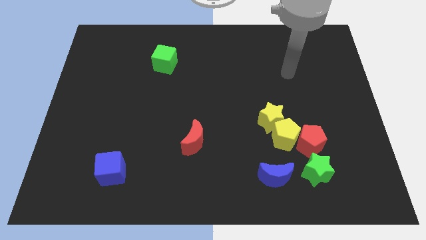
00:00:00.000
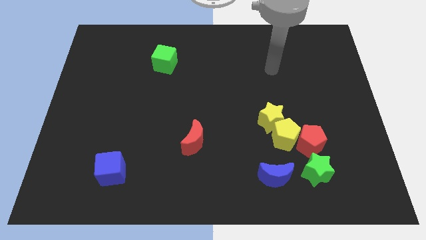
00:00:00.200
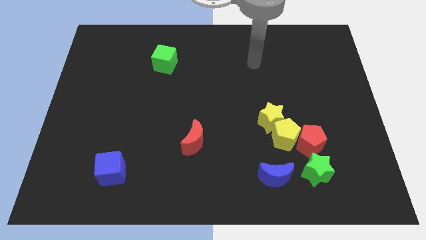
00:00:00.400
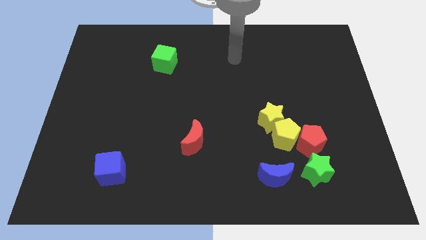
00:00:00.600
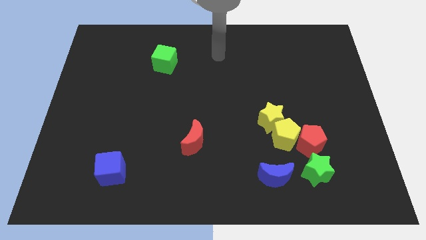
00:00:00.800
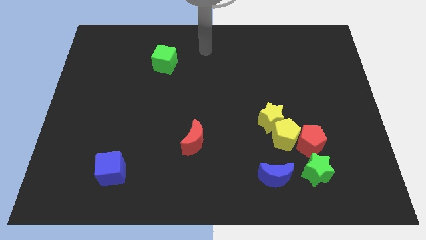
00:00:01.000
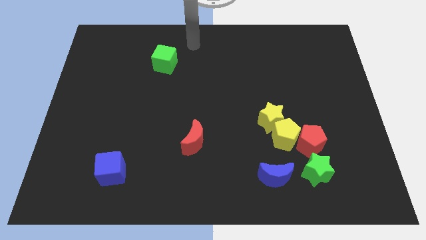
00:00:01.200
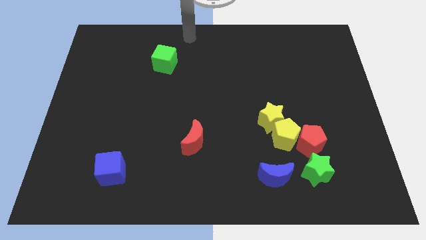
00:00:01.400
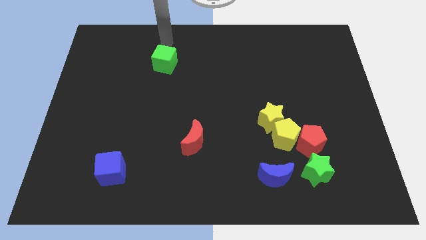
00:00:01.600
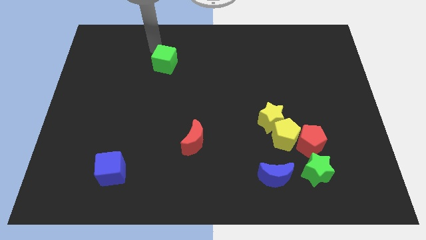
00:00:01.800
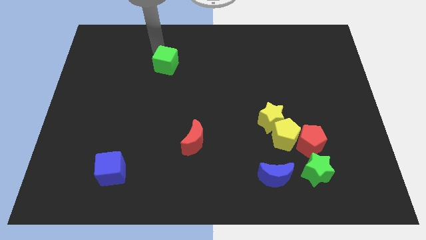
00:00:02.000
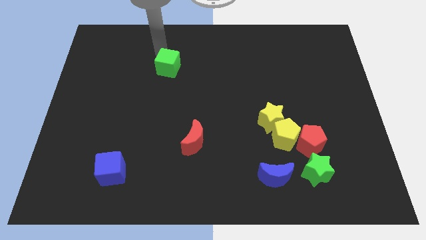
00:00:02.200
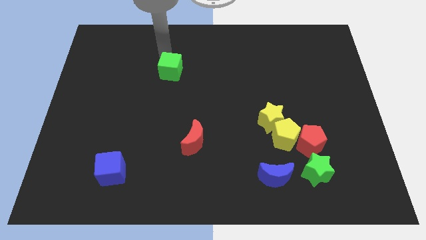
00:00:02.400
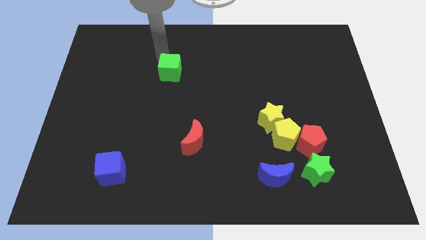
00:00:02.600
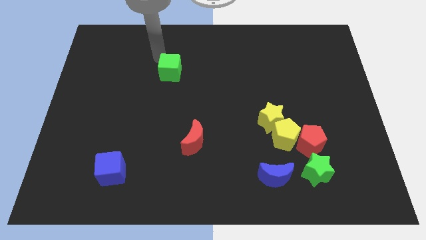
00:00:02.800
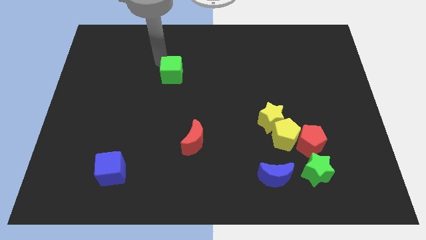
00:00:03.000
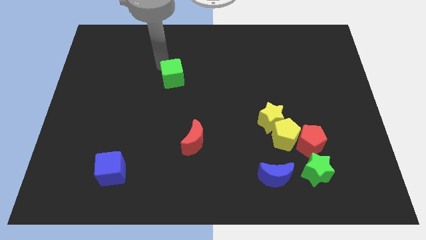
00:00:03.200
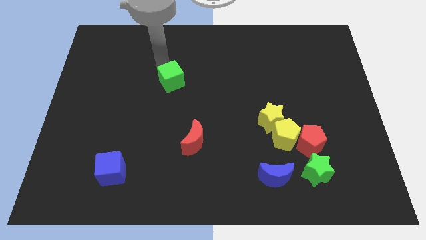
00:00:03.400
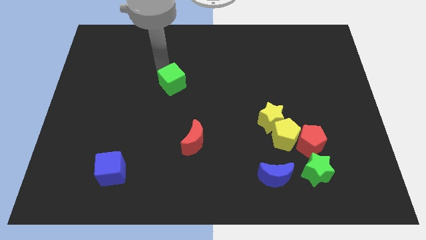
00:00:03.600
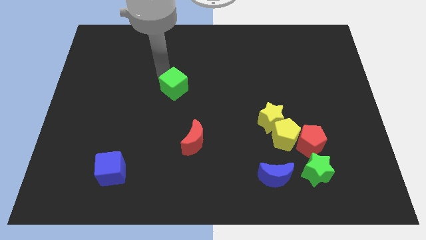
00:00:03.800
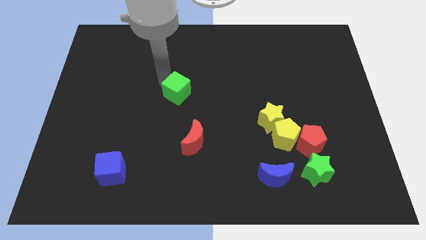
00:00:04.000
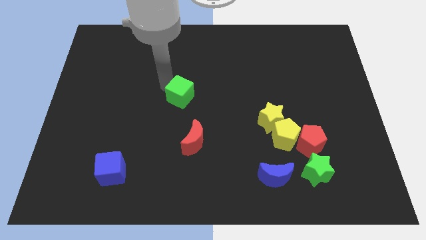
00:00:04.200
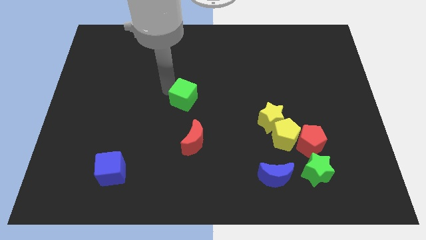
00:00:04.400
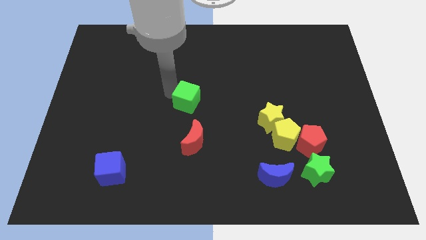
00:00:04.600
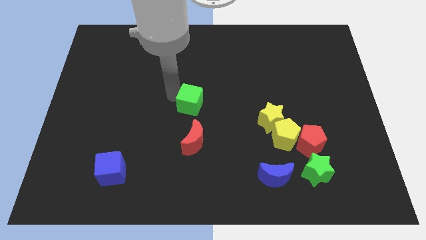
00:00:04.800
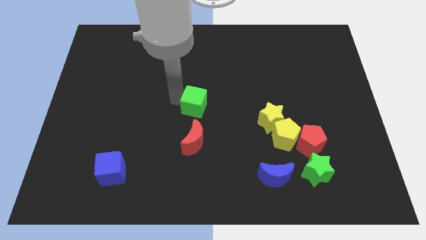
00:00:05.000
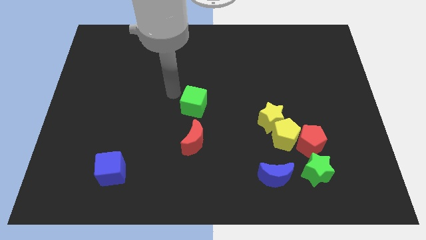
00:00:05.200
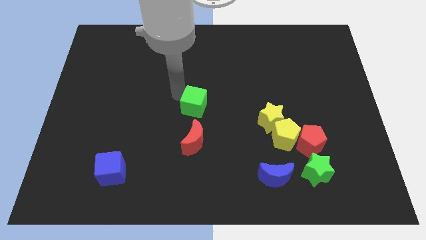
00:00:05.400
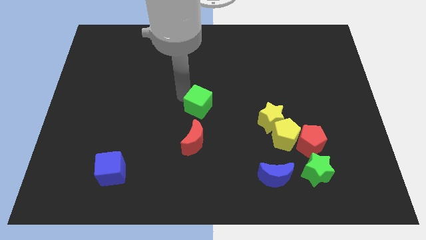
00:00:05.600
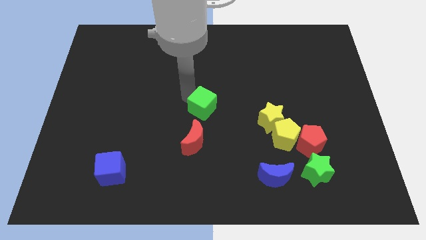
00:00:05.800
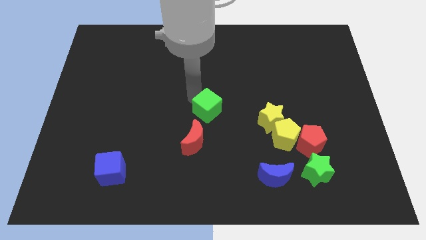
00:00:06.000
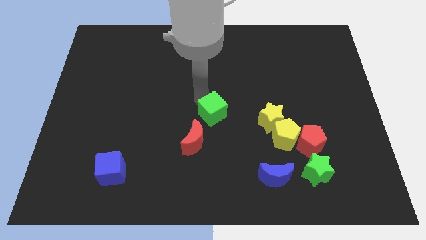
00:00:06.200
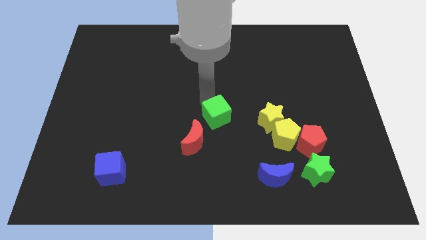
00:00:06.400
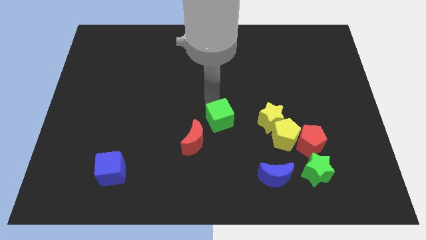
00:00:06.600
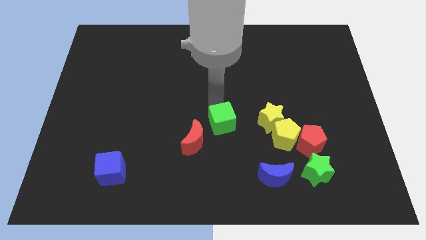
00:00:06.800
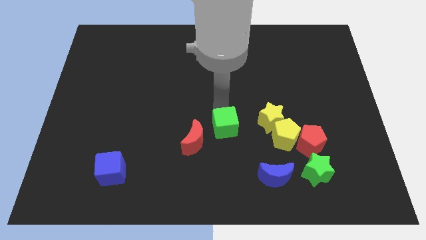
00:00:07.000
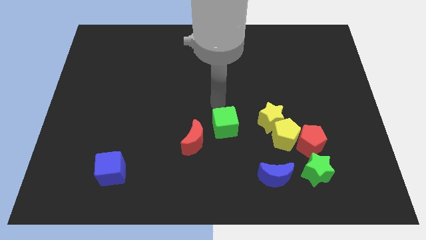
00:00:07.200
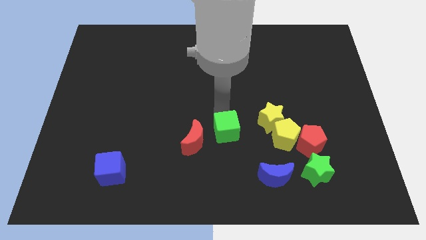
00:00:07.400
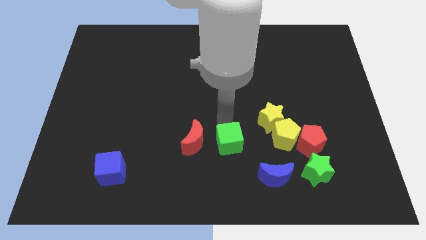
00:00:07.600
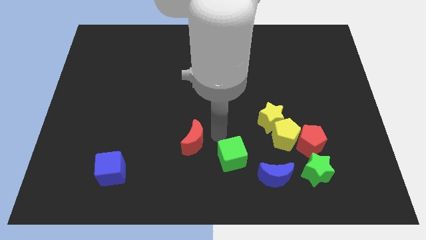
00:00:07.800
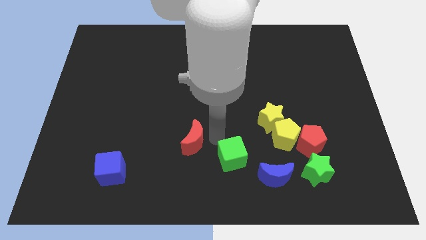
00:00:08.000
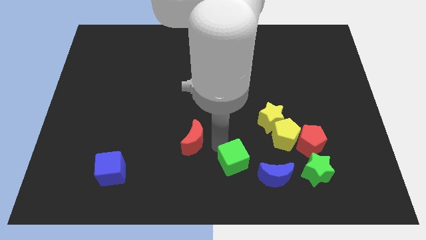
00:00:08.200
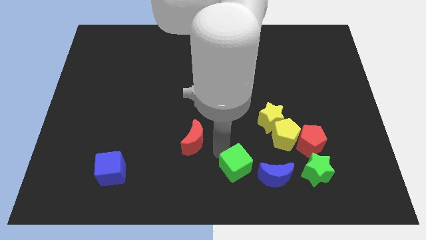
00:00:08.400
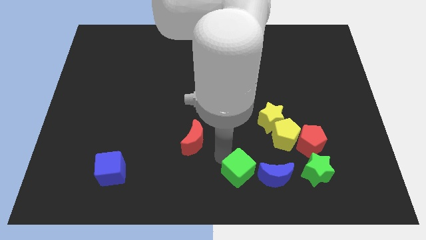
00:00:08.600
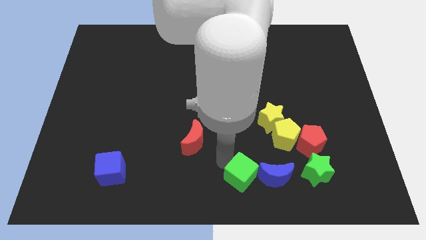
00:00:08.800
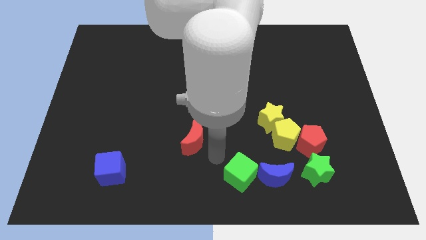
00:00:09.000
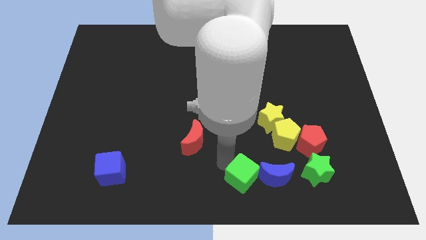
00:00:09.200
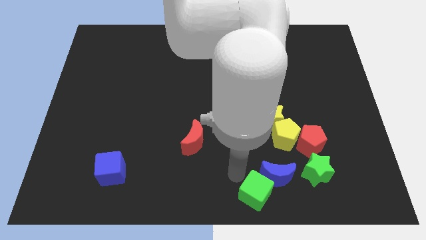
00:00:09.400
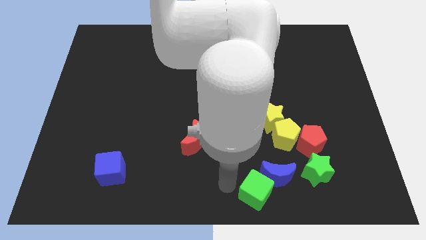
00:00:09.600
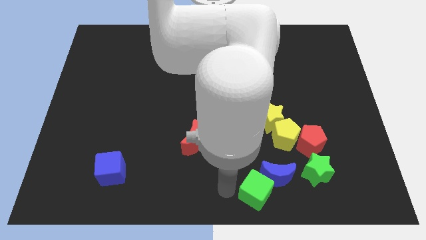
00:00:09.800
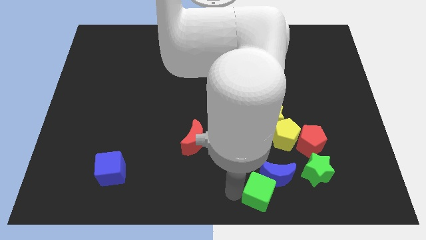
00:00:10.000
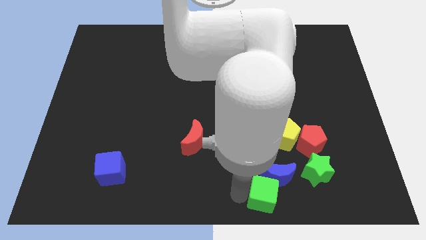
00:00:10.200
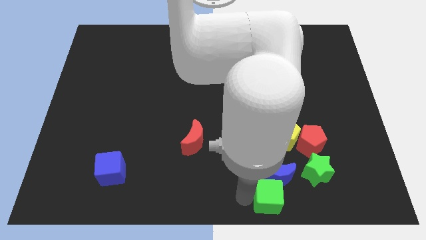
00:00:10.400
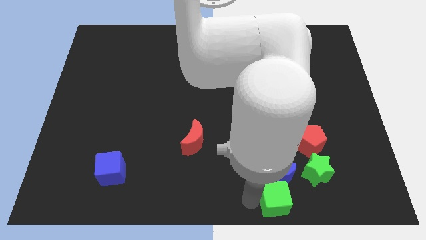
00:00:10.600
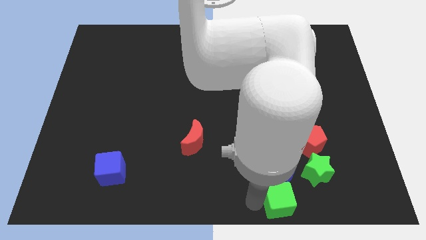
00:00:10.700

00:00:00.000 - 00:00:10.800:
put the green cube to the bottom side of the yellow pentagon

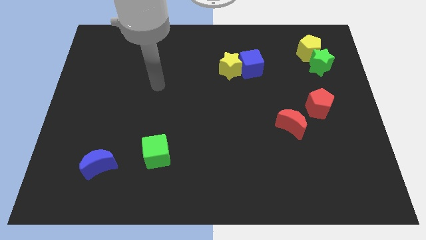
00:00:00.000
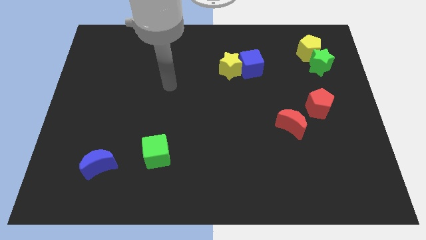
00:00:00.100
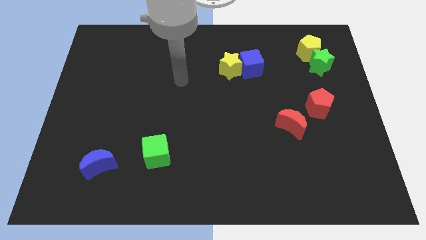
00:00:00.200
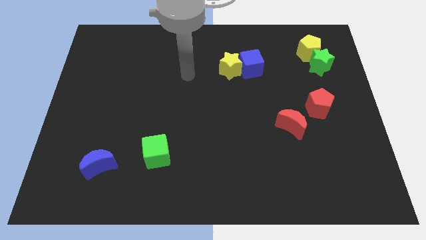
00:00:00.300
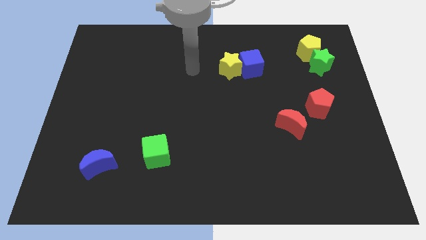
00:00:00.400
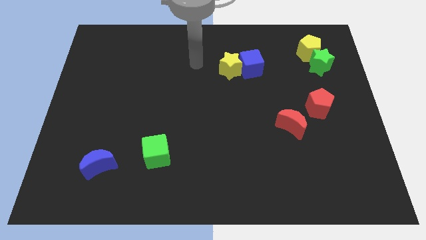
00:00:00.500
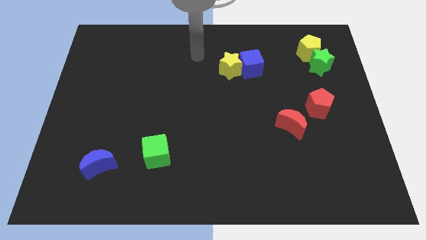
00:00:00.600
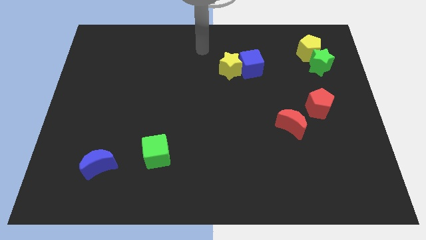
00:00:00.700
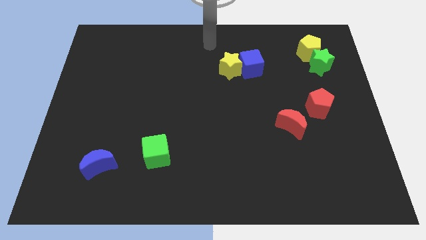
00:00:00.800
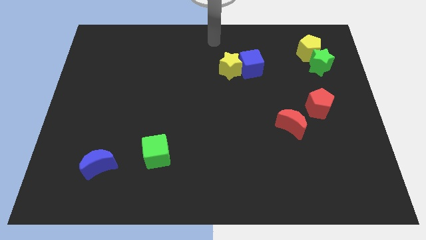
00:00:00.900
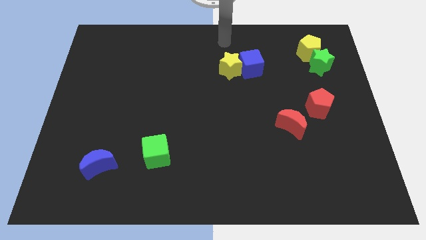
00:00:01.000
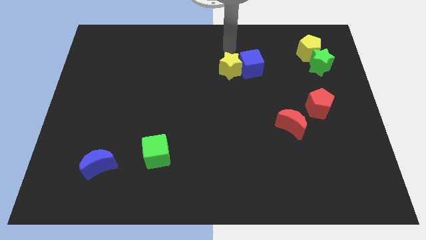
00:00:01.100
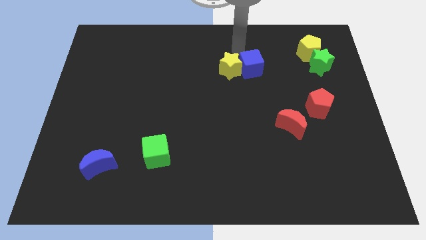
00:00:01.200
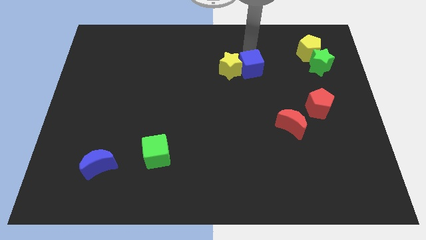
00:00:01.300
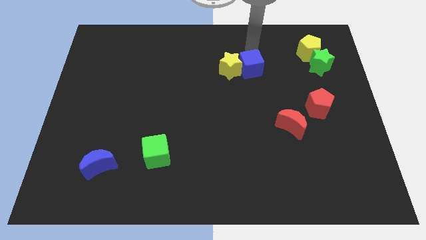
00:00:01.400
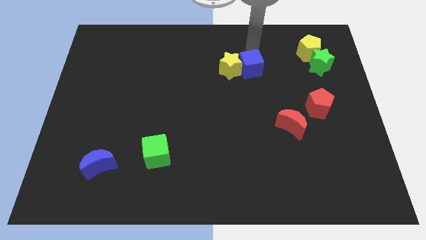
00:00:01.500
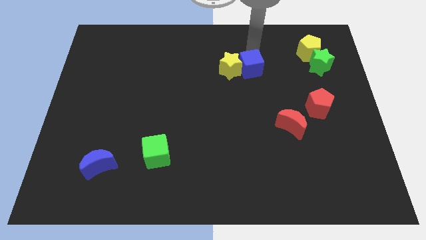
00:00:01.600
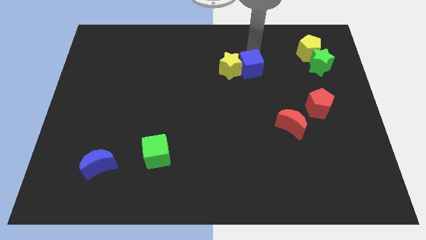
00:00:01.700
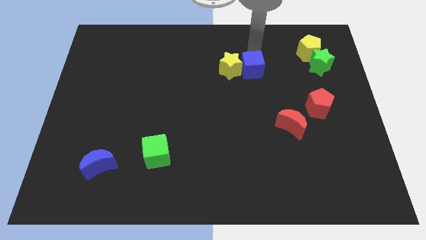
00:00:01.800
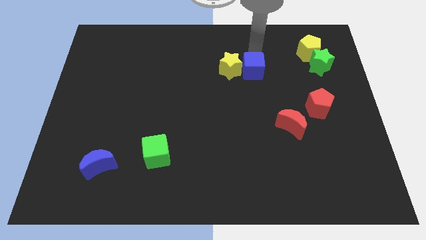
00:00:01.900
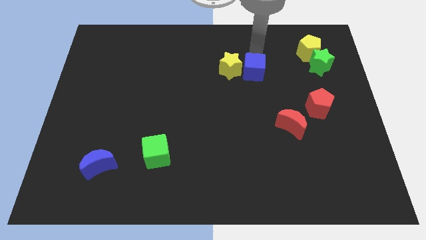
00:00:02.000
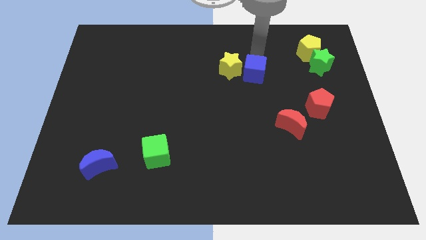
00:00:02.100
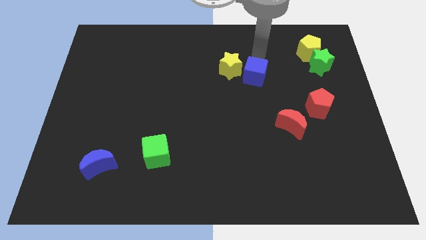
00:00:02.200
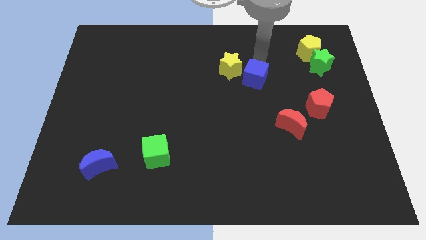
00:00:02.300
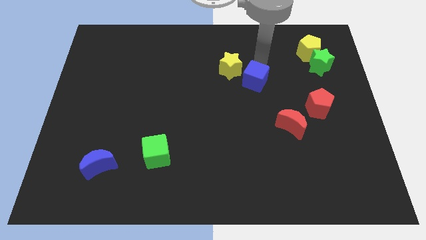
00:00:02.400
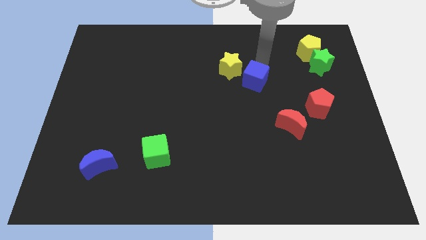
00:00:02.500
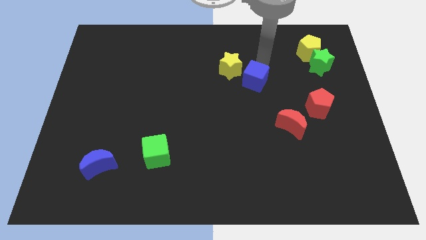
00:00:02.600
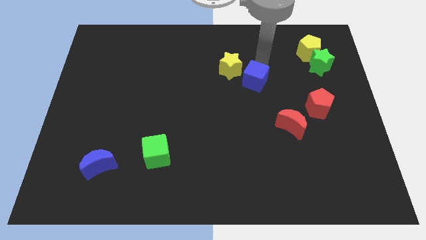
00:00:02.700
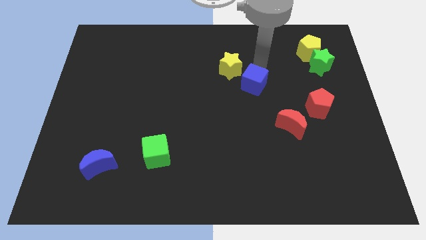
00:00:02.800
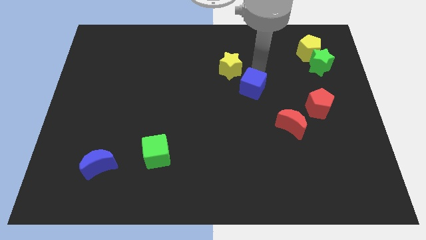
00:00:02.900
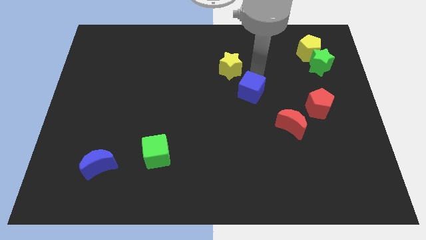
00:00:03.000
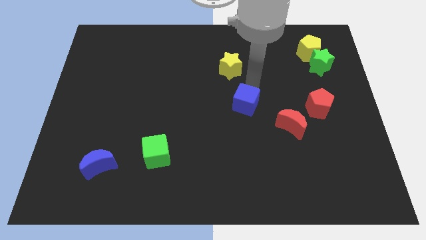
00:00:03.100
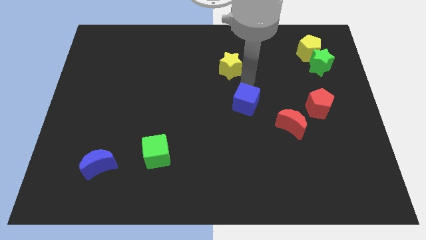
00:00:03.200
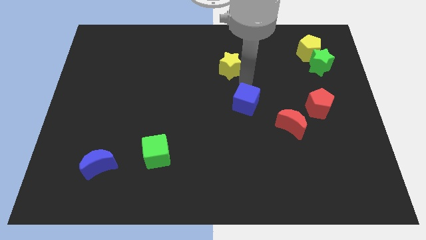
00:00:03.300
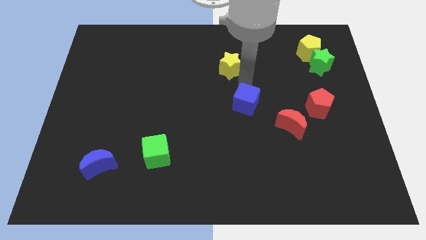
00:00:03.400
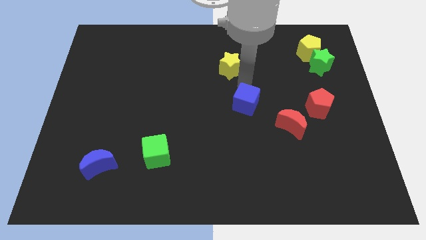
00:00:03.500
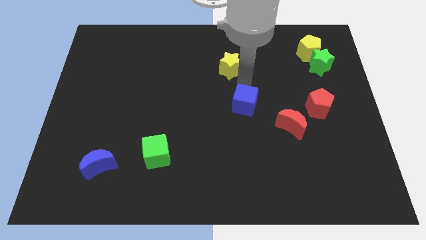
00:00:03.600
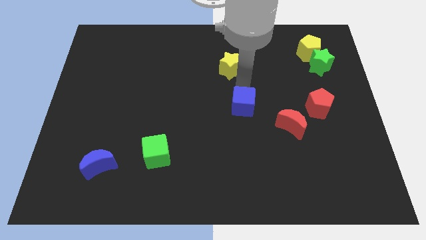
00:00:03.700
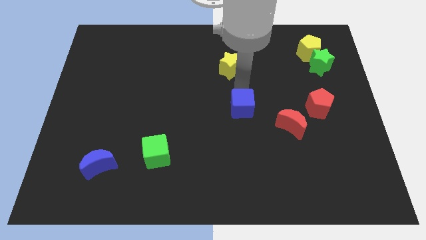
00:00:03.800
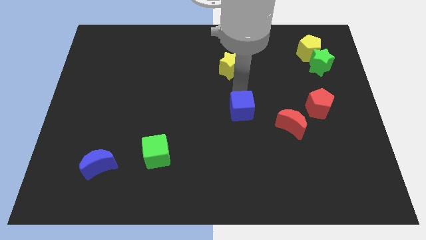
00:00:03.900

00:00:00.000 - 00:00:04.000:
push the blue cube just left of the red moon
